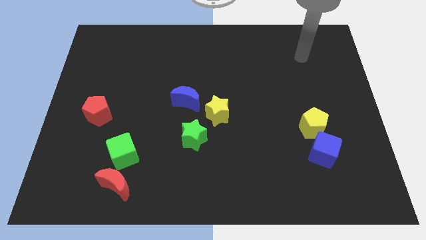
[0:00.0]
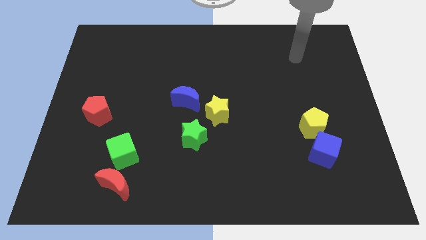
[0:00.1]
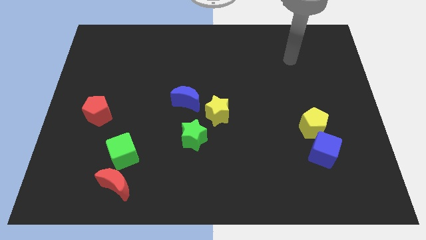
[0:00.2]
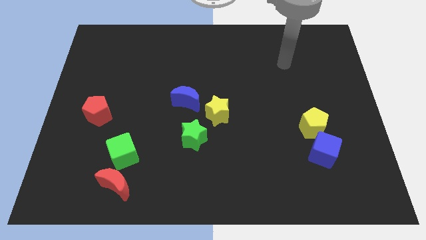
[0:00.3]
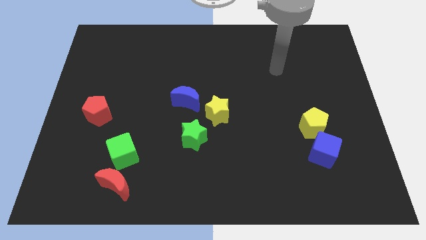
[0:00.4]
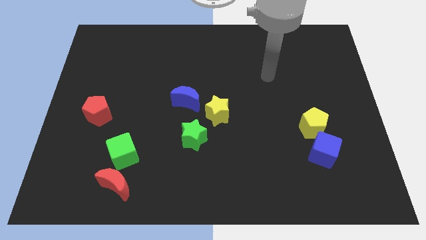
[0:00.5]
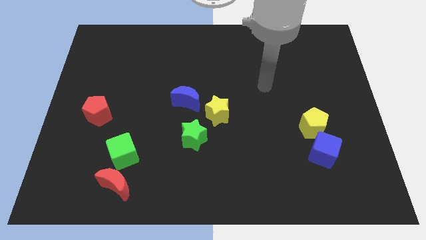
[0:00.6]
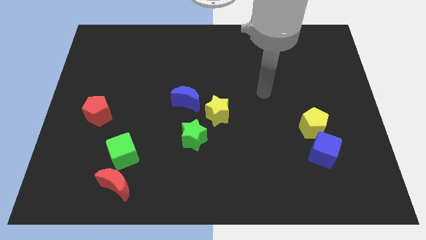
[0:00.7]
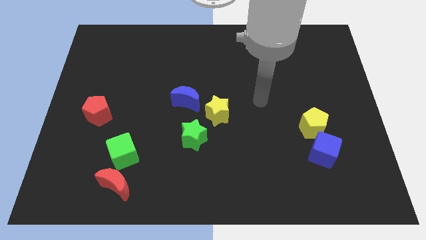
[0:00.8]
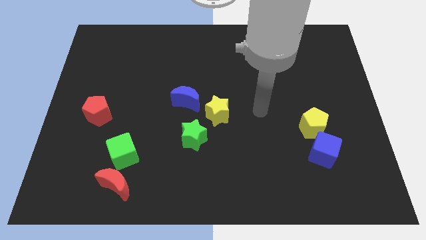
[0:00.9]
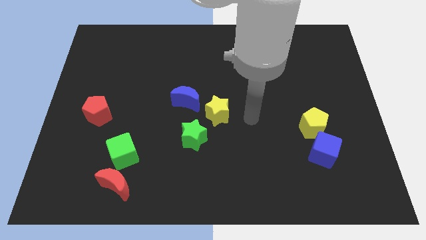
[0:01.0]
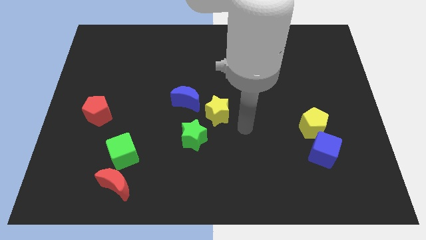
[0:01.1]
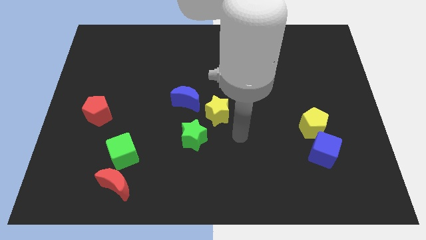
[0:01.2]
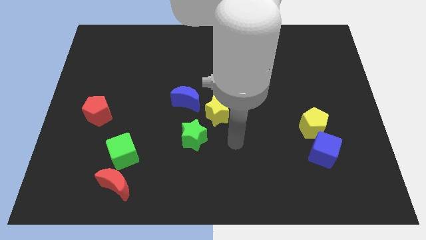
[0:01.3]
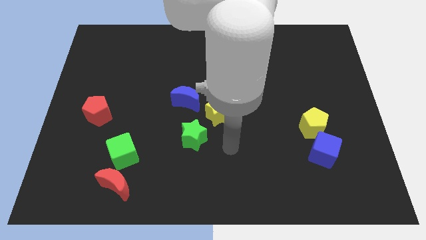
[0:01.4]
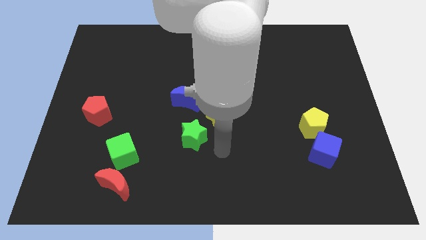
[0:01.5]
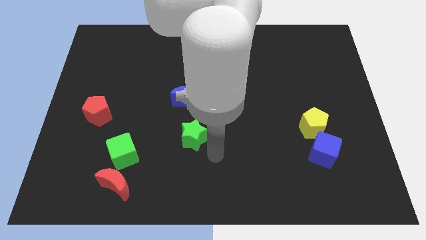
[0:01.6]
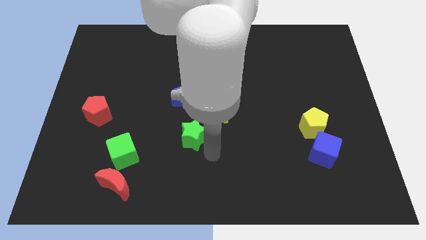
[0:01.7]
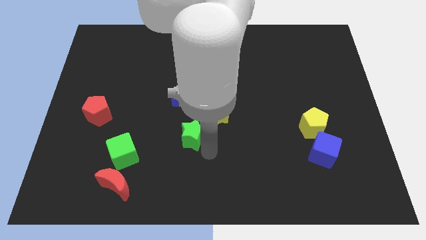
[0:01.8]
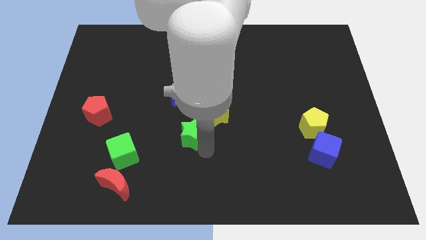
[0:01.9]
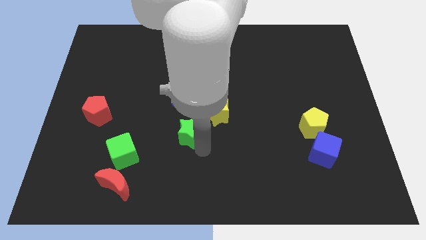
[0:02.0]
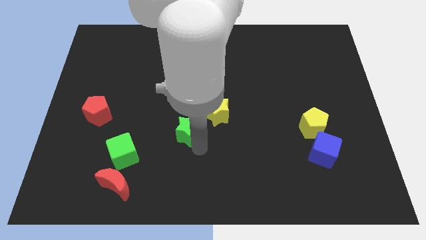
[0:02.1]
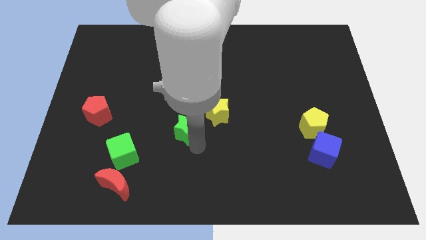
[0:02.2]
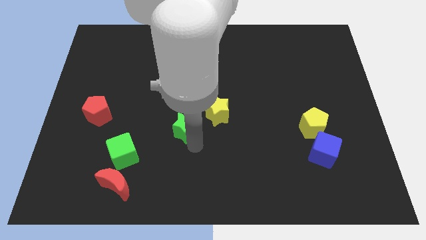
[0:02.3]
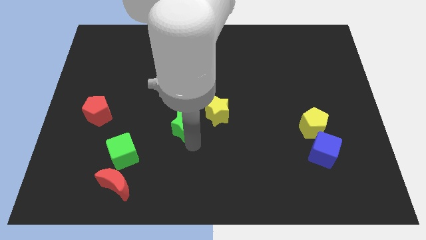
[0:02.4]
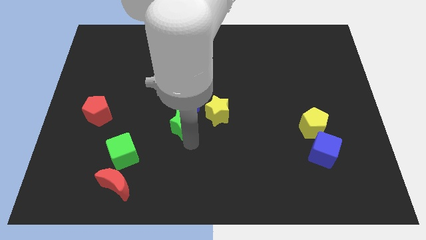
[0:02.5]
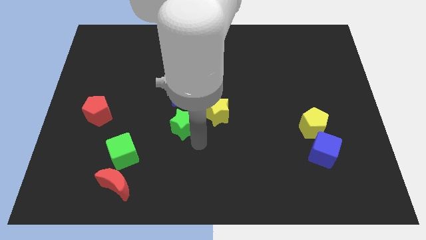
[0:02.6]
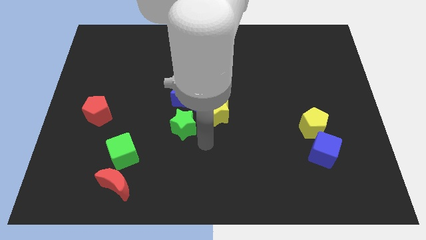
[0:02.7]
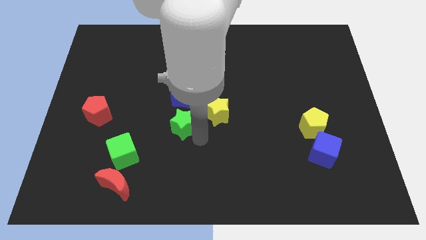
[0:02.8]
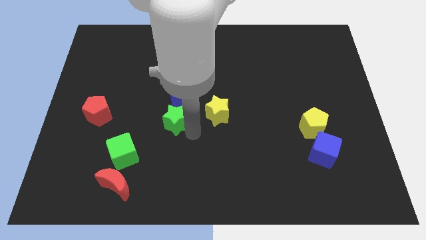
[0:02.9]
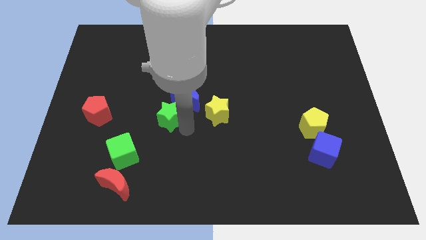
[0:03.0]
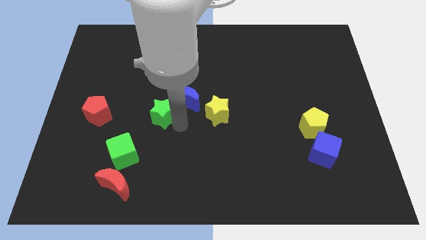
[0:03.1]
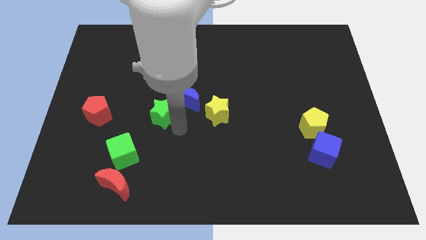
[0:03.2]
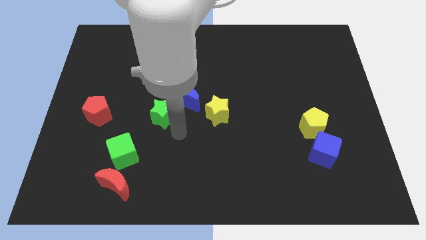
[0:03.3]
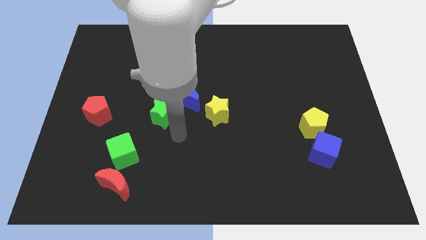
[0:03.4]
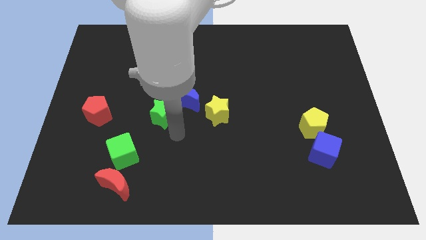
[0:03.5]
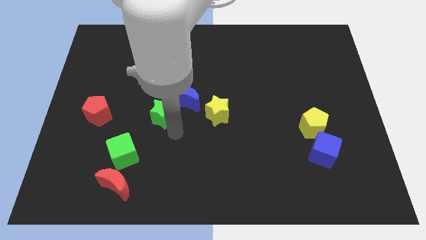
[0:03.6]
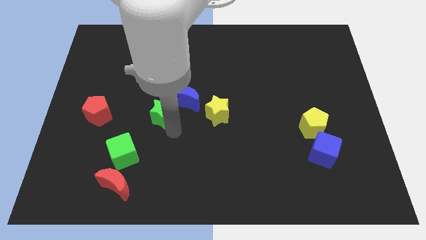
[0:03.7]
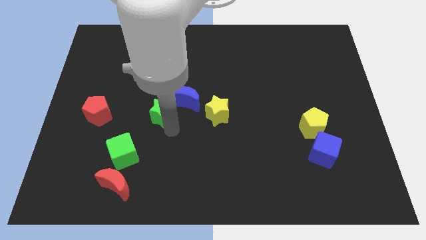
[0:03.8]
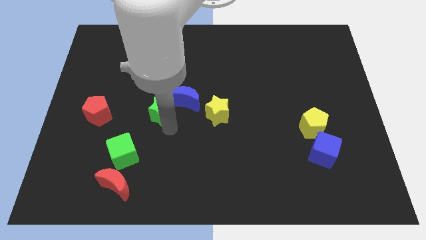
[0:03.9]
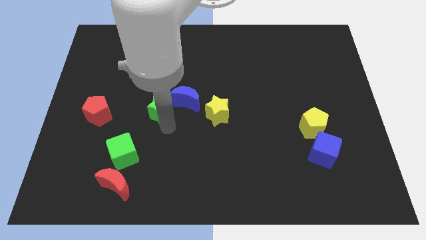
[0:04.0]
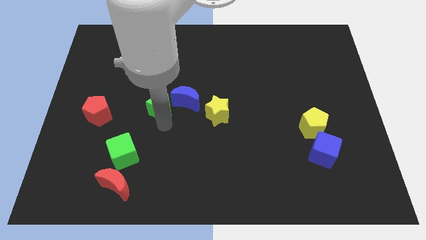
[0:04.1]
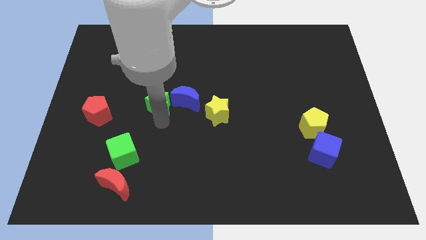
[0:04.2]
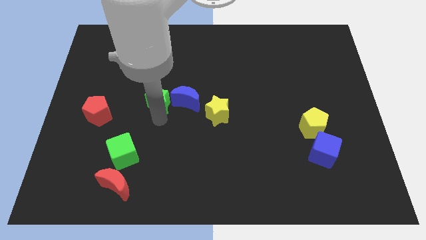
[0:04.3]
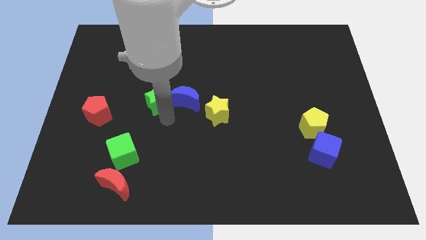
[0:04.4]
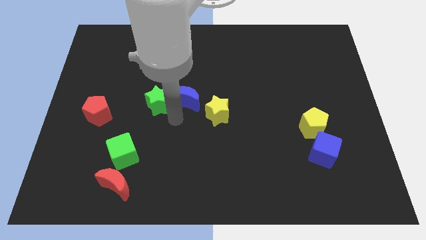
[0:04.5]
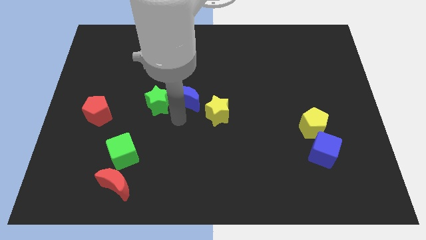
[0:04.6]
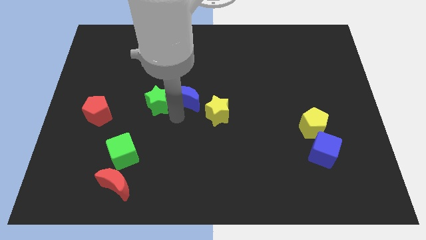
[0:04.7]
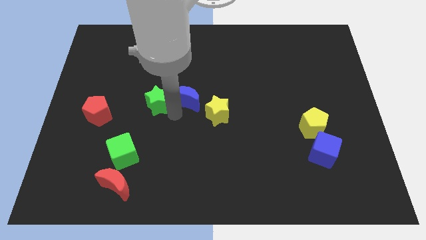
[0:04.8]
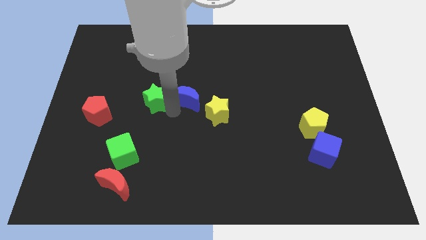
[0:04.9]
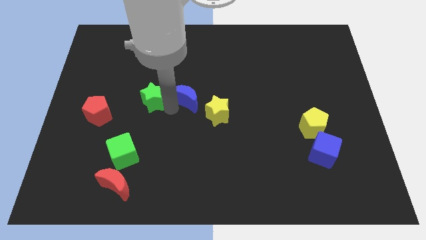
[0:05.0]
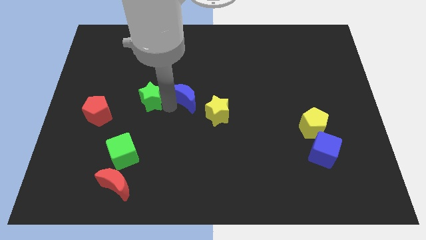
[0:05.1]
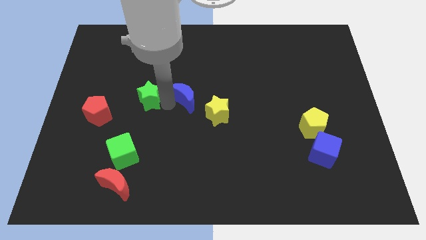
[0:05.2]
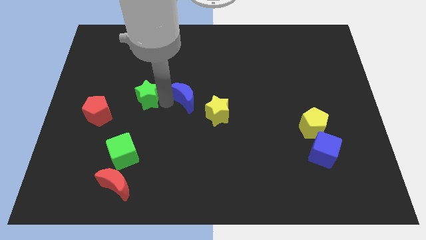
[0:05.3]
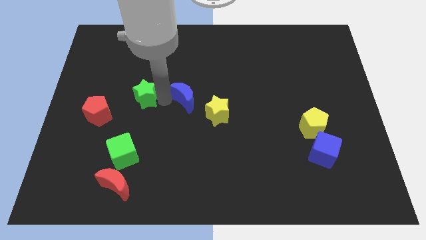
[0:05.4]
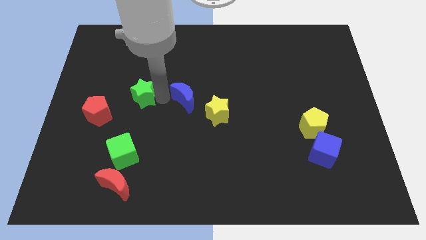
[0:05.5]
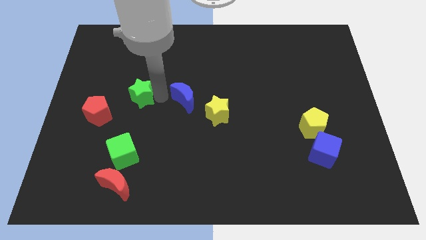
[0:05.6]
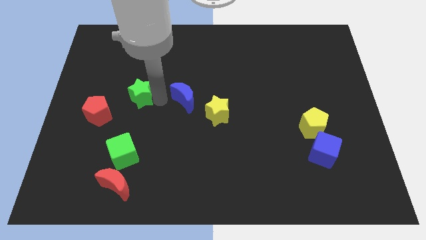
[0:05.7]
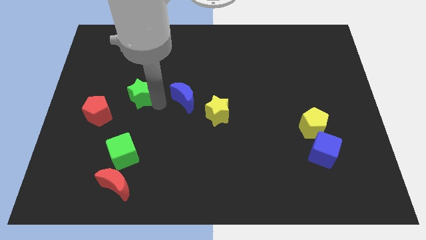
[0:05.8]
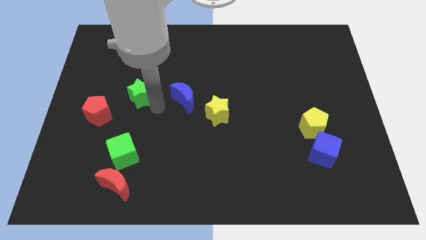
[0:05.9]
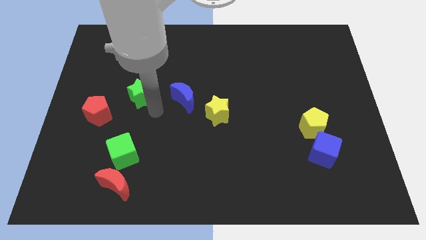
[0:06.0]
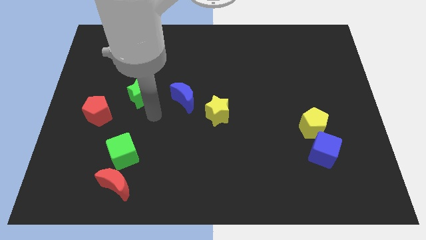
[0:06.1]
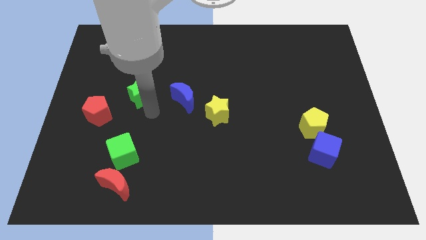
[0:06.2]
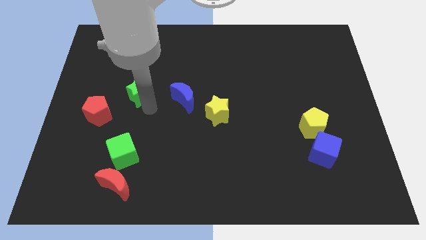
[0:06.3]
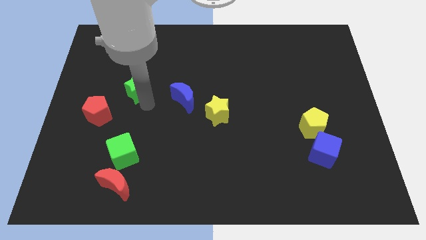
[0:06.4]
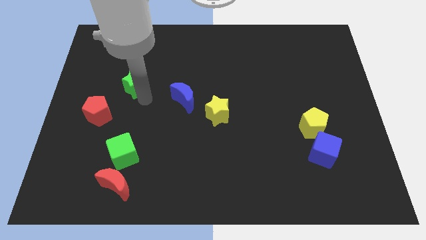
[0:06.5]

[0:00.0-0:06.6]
move the green star up and then left

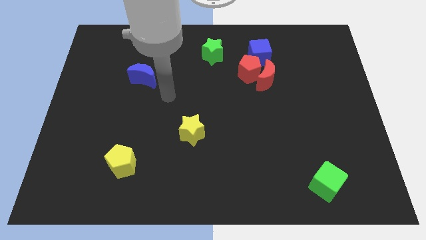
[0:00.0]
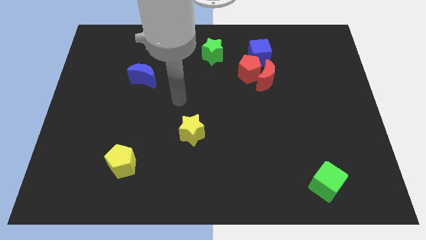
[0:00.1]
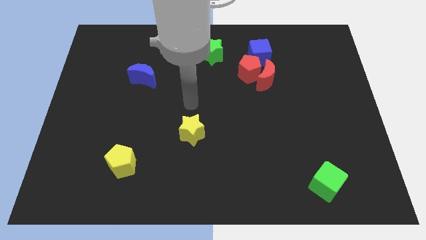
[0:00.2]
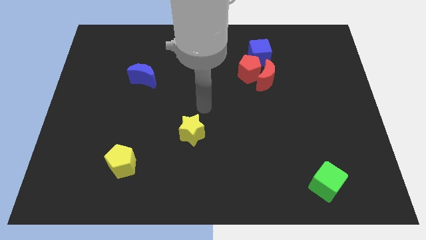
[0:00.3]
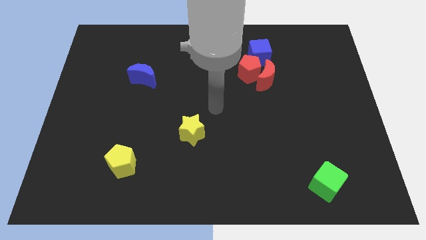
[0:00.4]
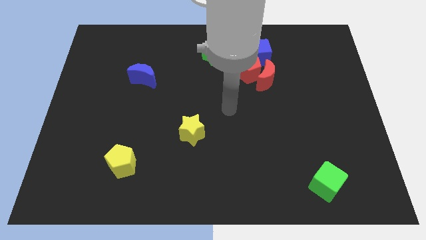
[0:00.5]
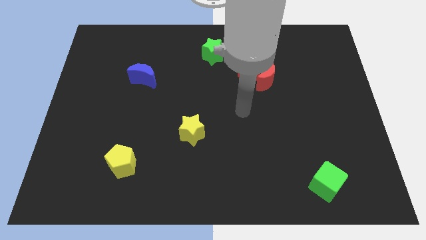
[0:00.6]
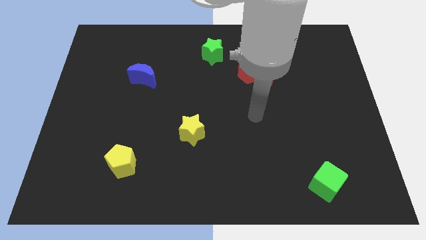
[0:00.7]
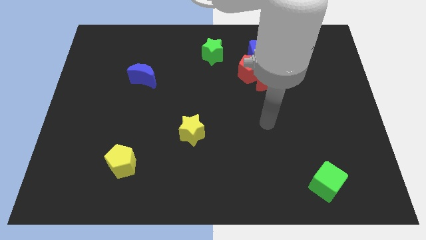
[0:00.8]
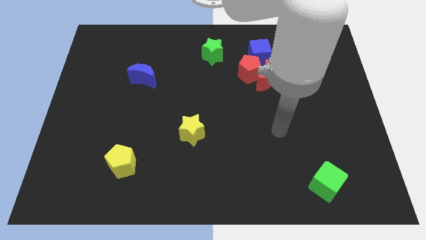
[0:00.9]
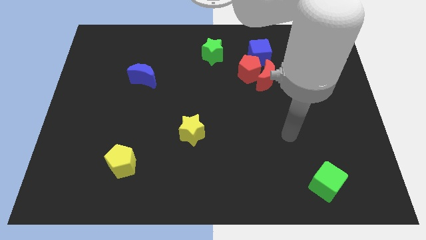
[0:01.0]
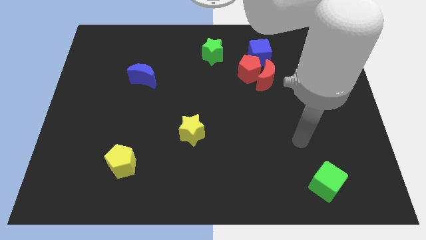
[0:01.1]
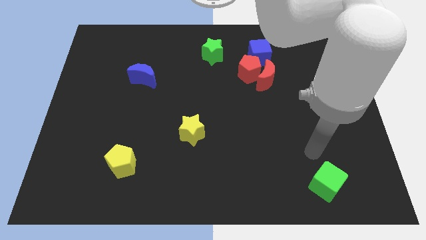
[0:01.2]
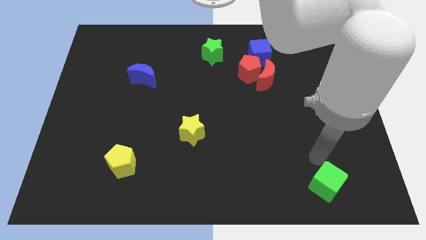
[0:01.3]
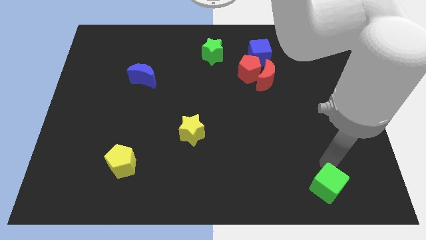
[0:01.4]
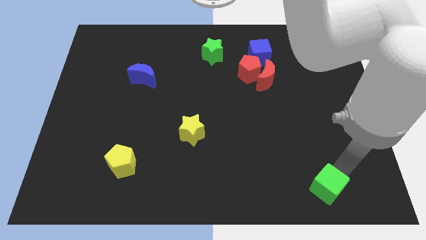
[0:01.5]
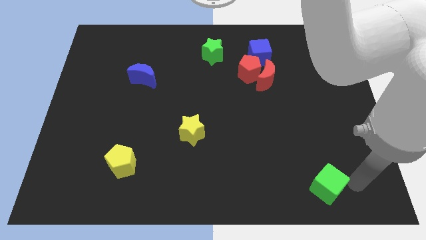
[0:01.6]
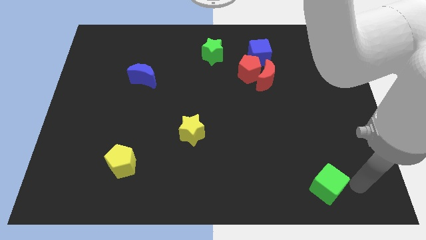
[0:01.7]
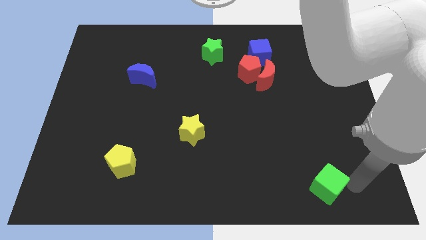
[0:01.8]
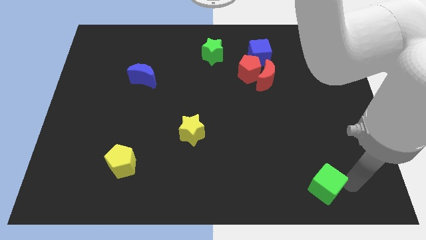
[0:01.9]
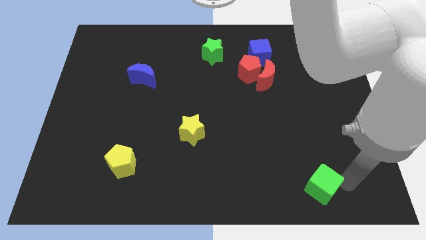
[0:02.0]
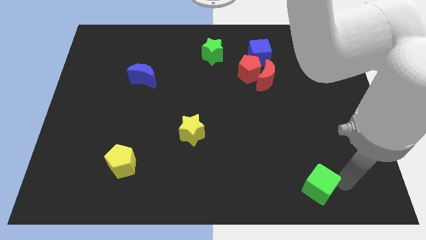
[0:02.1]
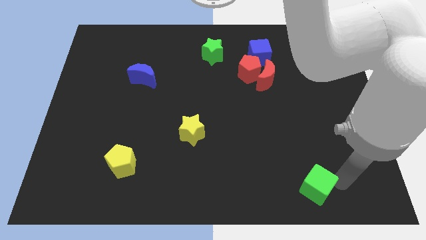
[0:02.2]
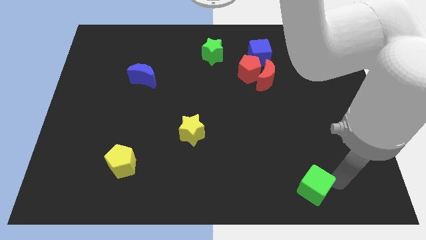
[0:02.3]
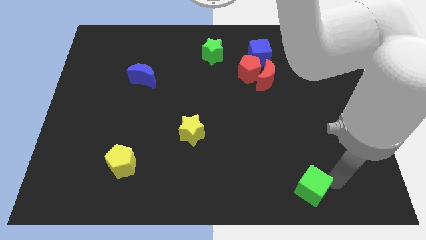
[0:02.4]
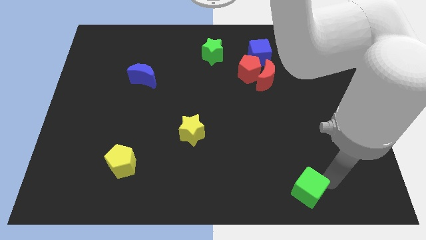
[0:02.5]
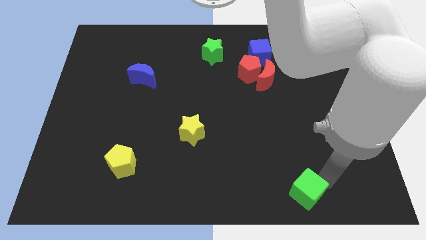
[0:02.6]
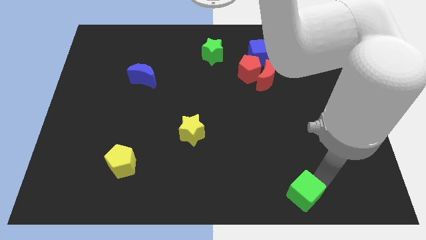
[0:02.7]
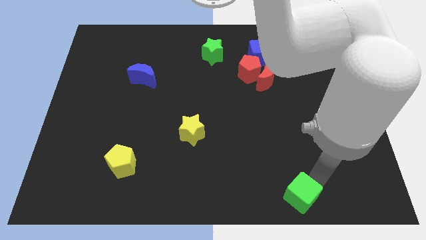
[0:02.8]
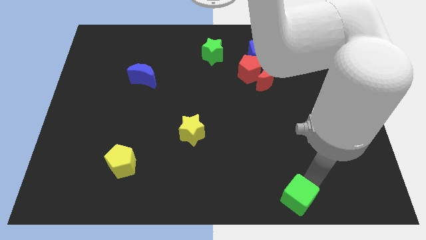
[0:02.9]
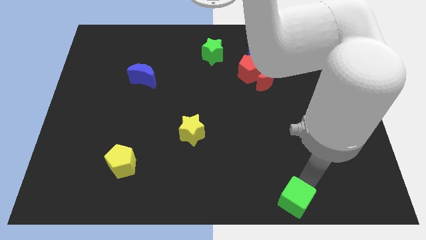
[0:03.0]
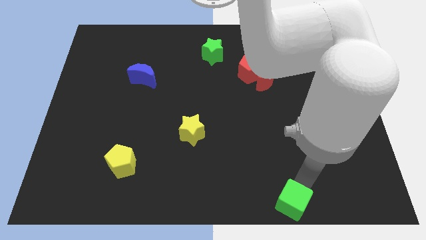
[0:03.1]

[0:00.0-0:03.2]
push the green cube slightly left
